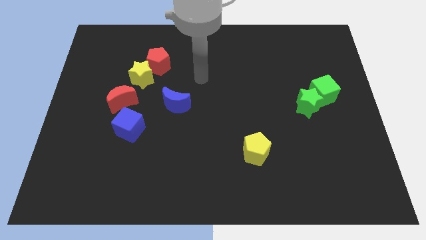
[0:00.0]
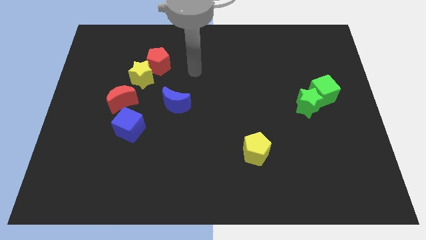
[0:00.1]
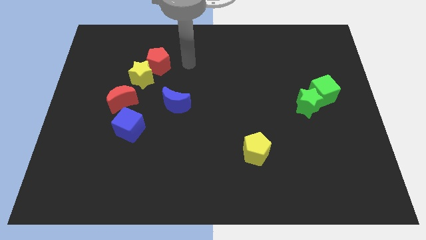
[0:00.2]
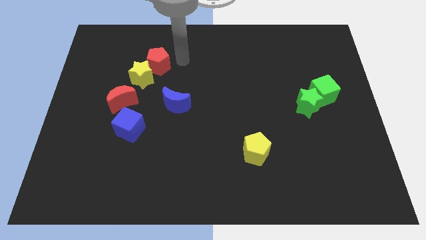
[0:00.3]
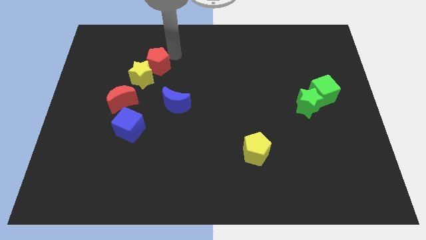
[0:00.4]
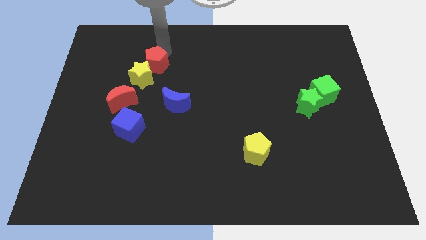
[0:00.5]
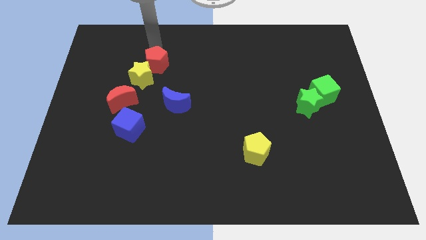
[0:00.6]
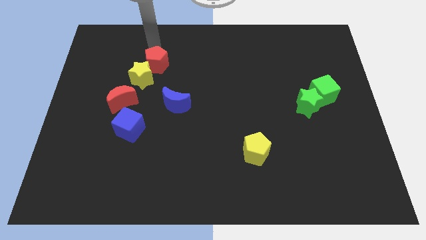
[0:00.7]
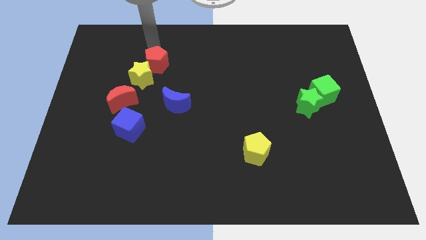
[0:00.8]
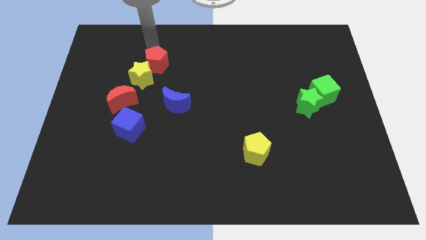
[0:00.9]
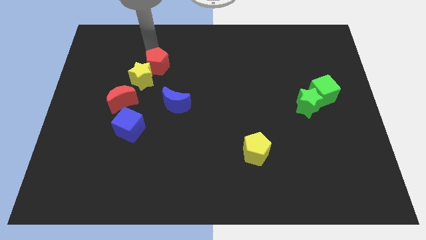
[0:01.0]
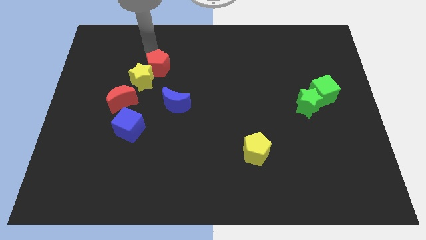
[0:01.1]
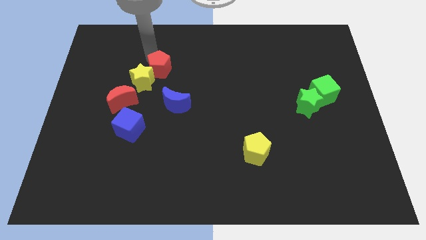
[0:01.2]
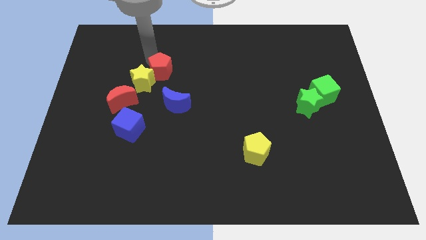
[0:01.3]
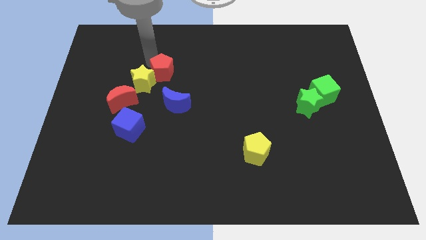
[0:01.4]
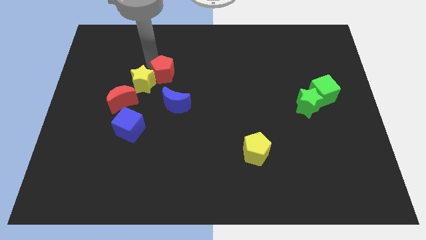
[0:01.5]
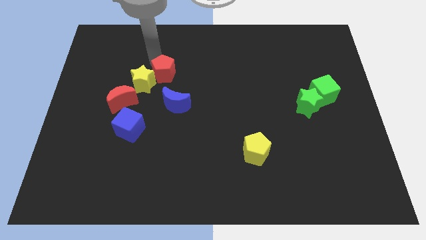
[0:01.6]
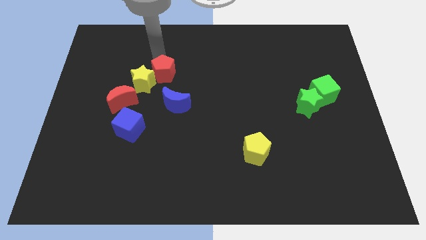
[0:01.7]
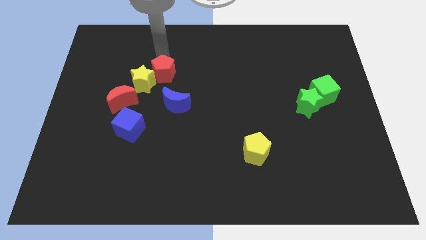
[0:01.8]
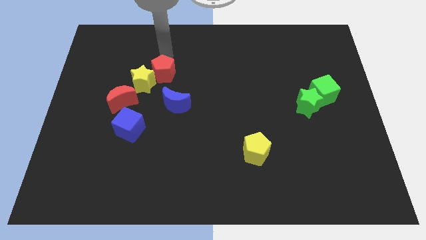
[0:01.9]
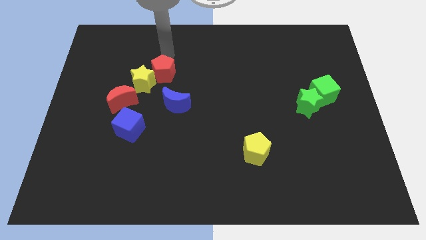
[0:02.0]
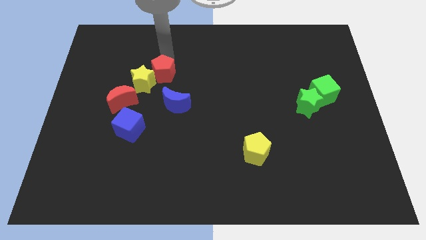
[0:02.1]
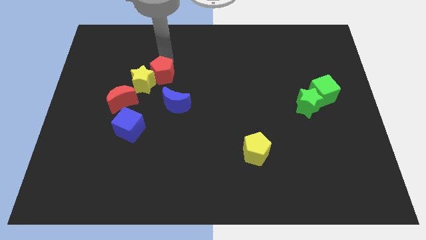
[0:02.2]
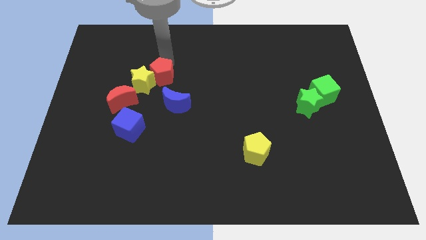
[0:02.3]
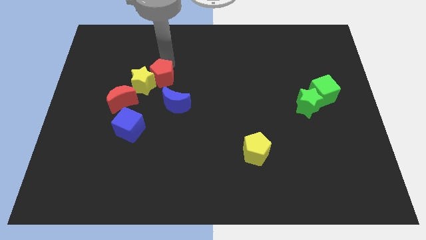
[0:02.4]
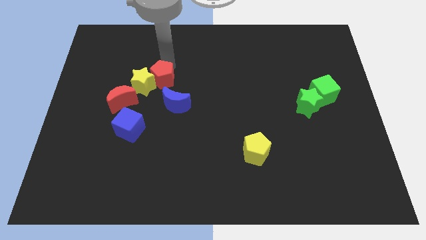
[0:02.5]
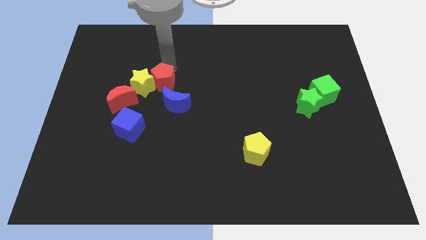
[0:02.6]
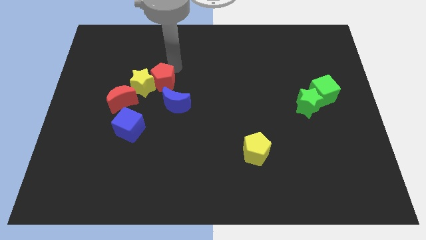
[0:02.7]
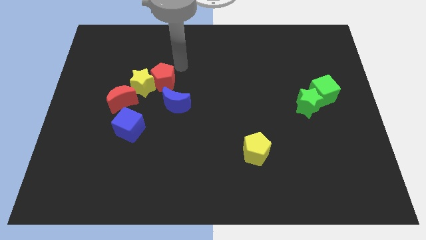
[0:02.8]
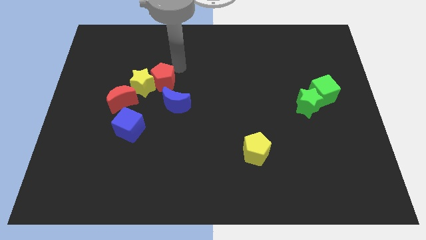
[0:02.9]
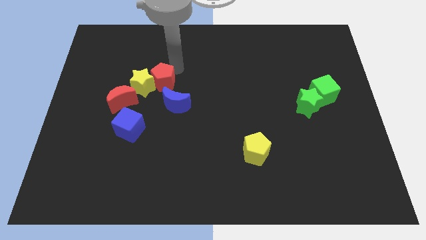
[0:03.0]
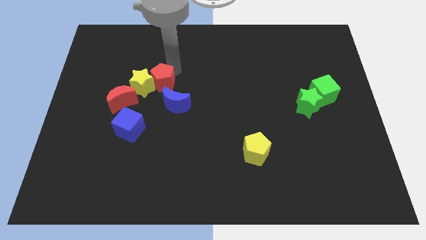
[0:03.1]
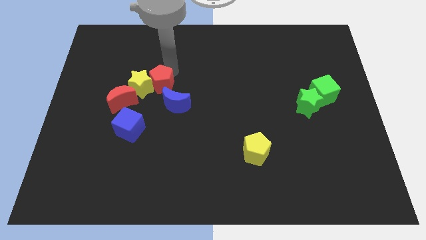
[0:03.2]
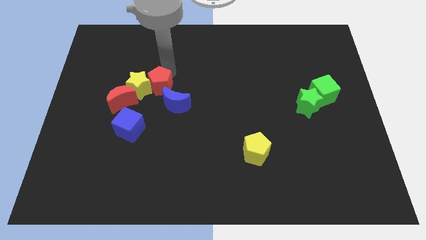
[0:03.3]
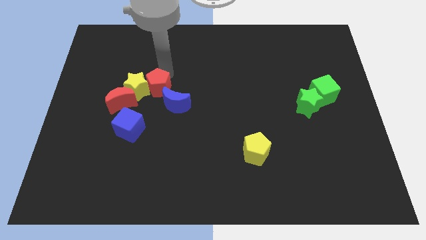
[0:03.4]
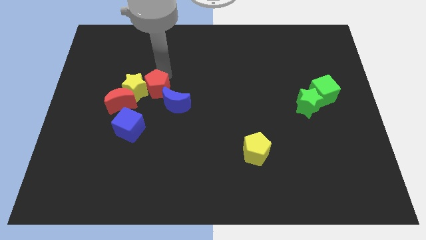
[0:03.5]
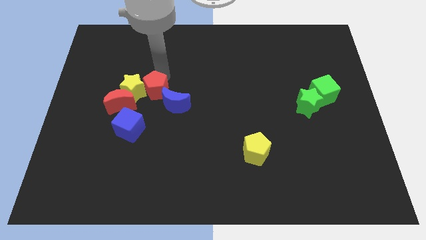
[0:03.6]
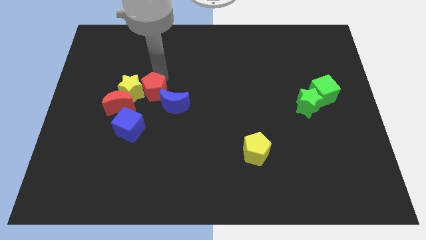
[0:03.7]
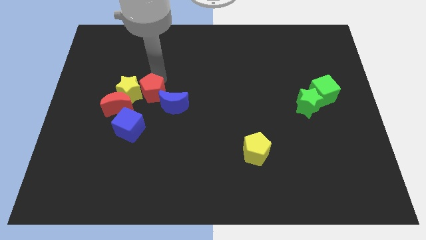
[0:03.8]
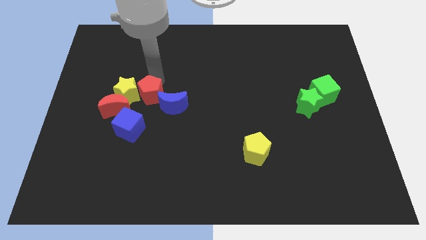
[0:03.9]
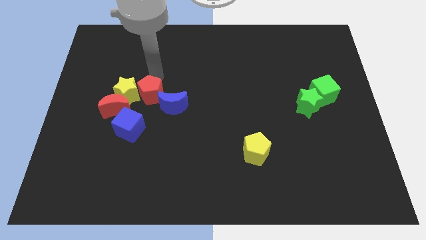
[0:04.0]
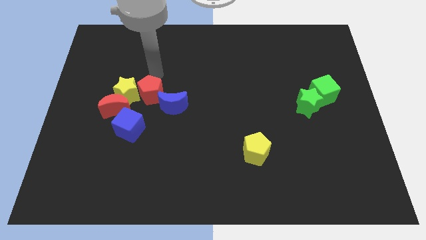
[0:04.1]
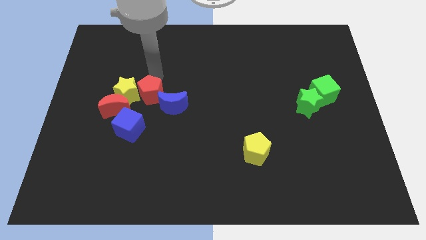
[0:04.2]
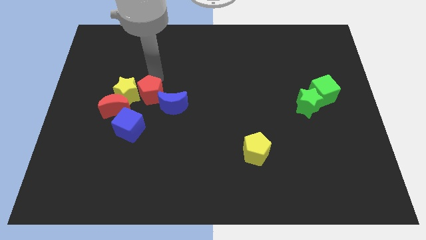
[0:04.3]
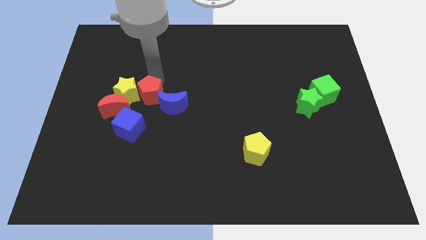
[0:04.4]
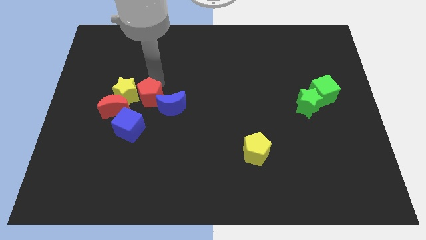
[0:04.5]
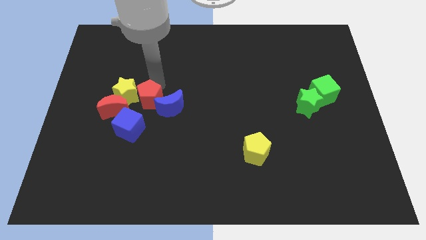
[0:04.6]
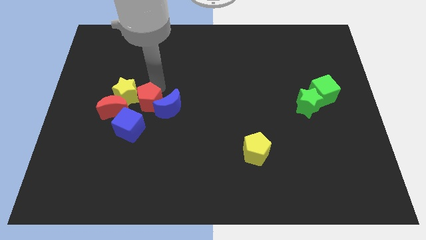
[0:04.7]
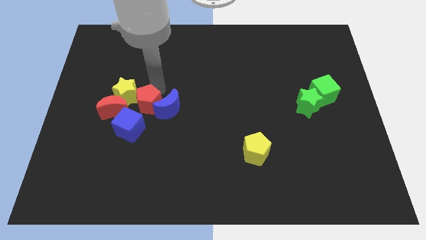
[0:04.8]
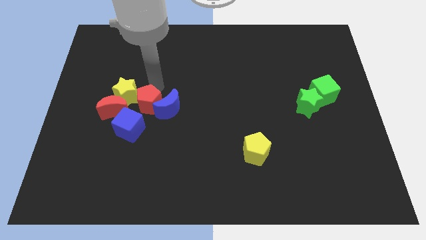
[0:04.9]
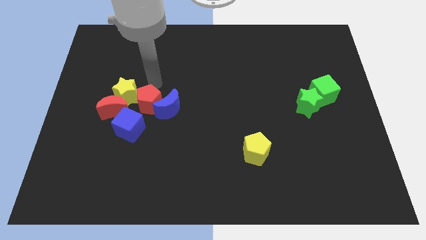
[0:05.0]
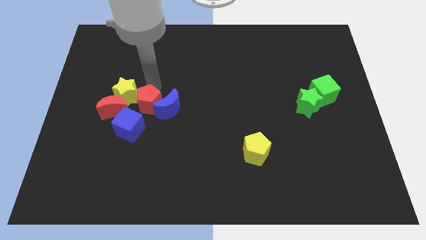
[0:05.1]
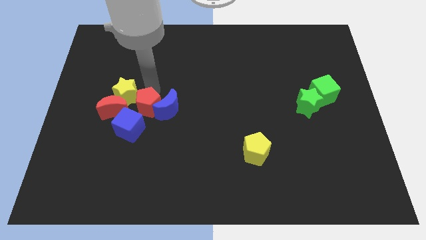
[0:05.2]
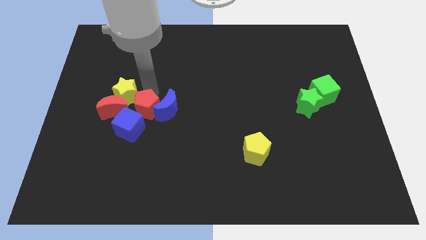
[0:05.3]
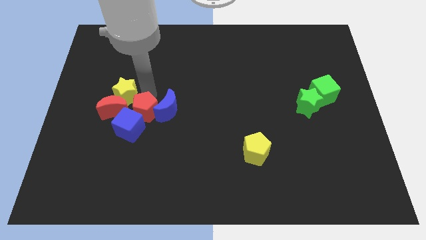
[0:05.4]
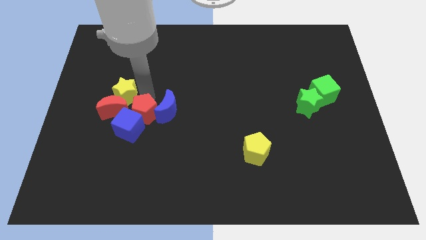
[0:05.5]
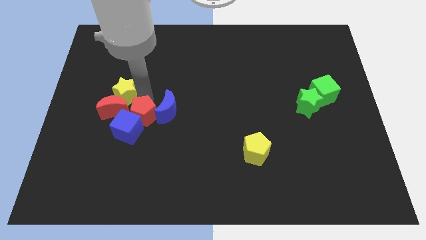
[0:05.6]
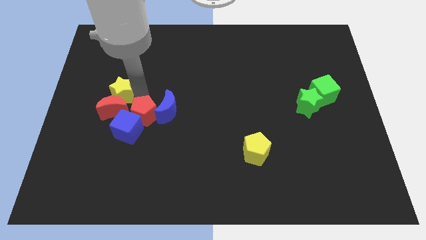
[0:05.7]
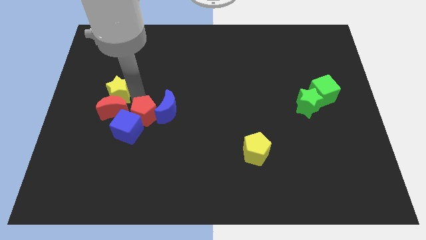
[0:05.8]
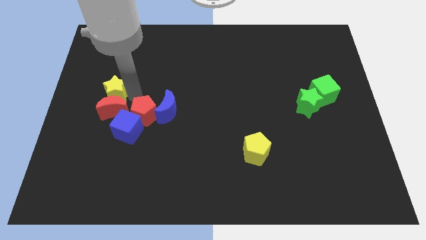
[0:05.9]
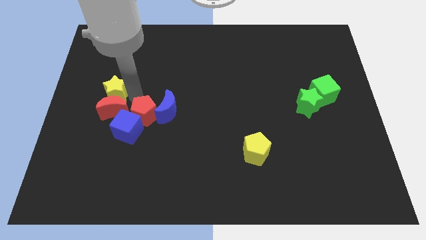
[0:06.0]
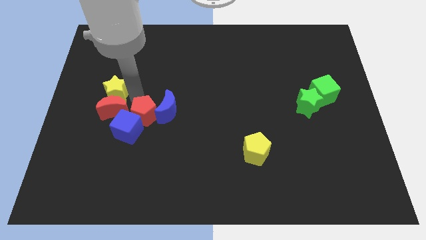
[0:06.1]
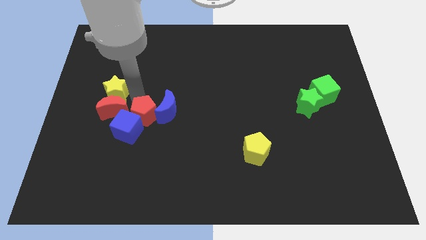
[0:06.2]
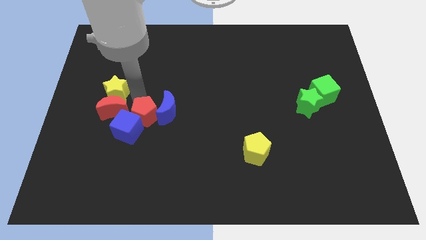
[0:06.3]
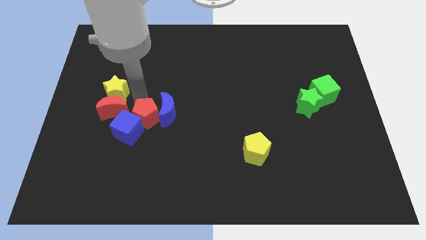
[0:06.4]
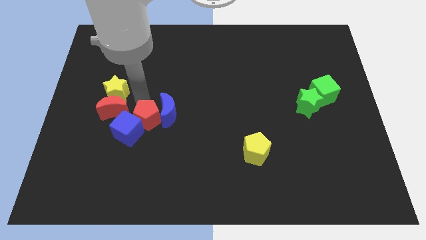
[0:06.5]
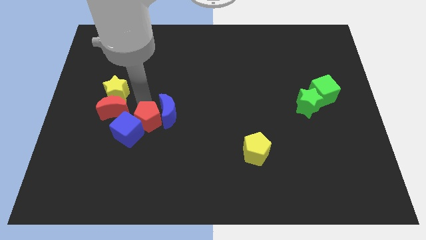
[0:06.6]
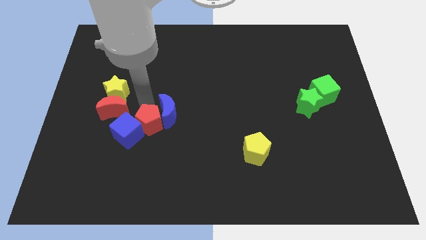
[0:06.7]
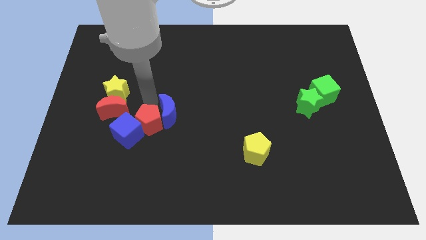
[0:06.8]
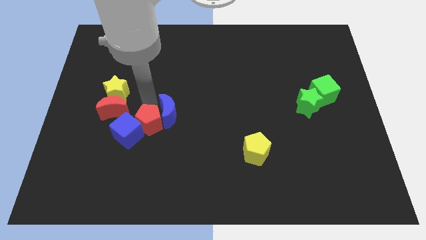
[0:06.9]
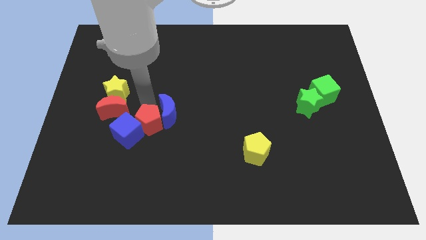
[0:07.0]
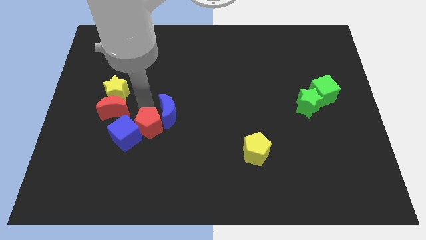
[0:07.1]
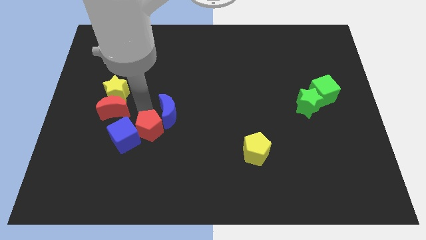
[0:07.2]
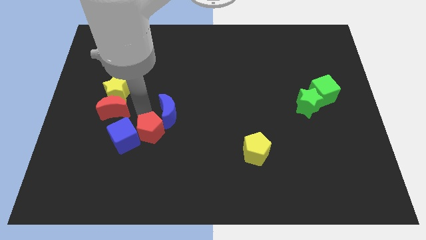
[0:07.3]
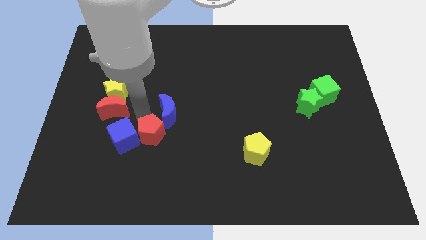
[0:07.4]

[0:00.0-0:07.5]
move the red pentagon to the bottom right of the blue cube
